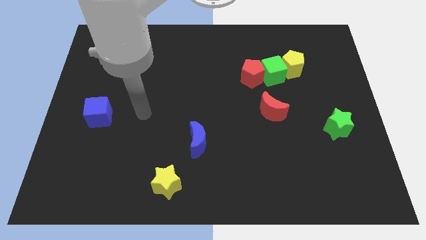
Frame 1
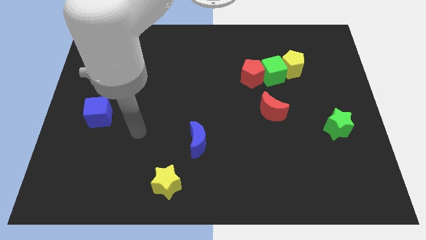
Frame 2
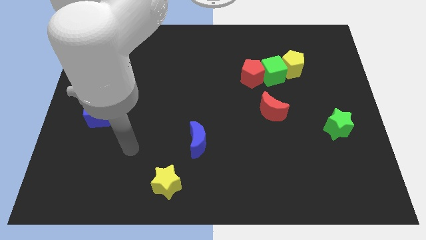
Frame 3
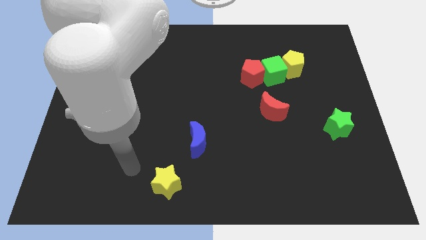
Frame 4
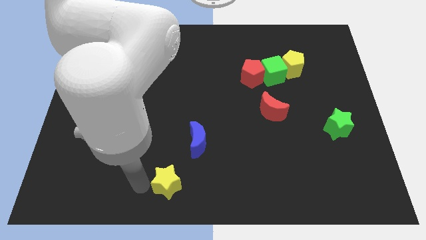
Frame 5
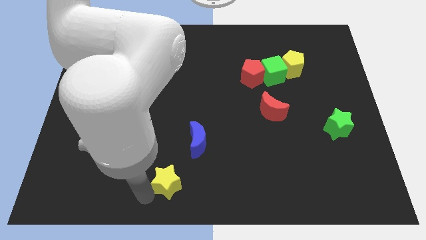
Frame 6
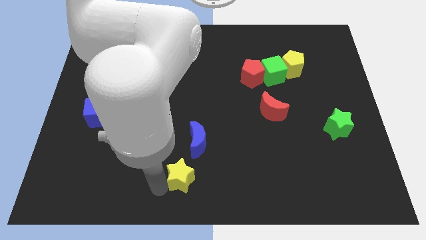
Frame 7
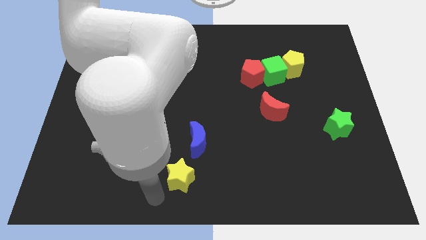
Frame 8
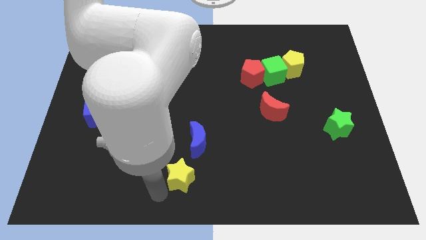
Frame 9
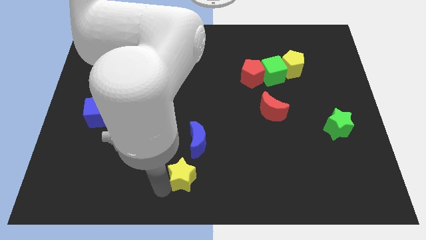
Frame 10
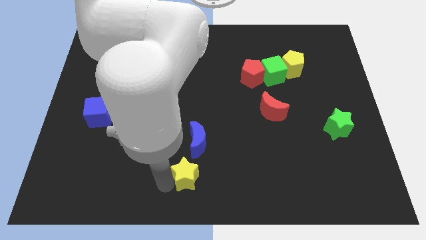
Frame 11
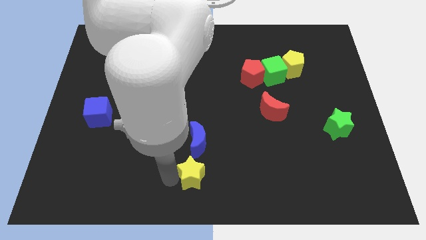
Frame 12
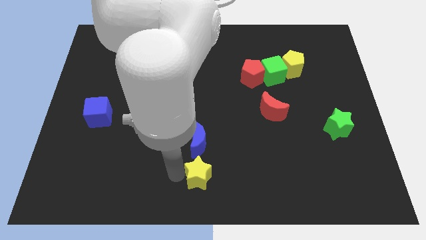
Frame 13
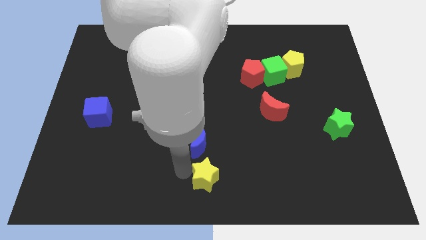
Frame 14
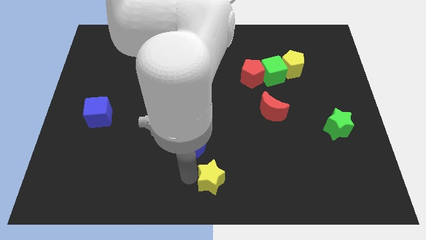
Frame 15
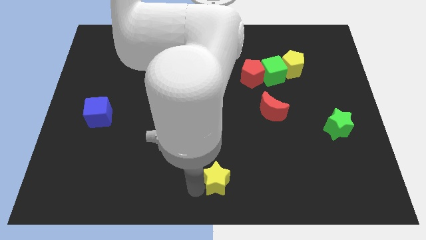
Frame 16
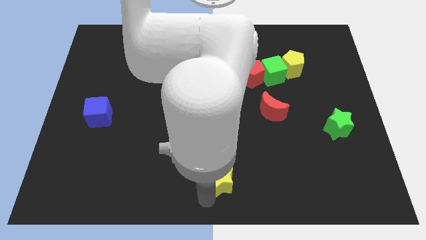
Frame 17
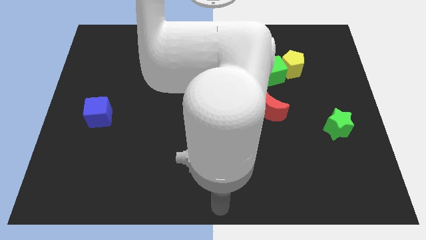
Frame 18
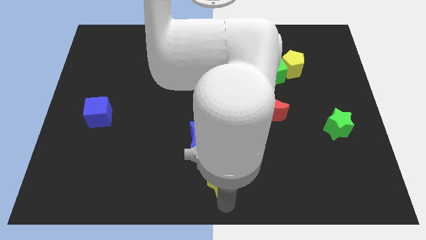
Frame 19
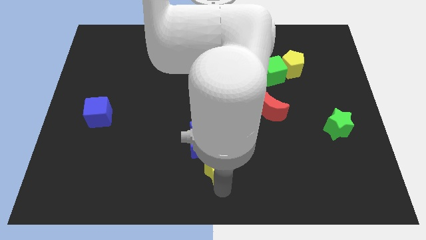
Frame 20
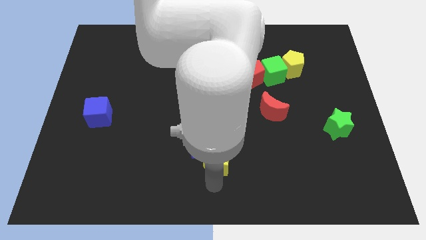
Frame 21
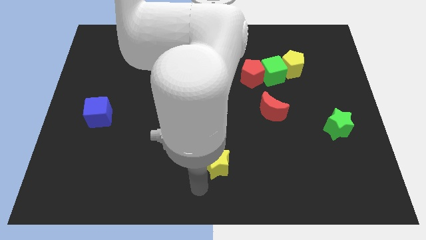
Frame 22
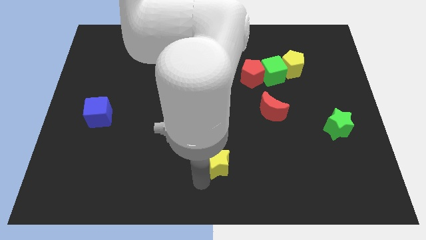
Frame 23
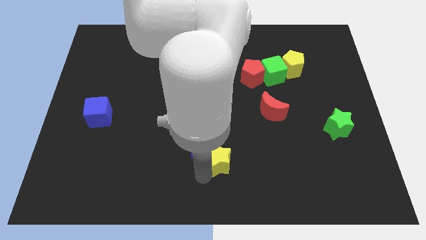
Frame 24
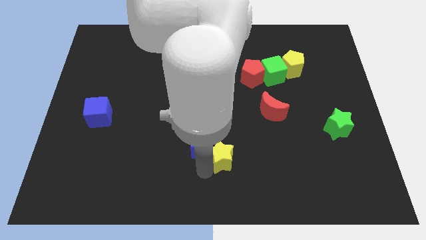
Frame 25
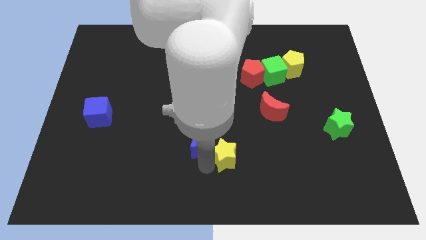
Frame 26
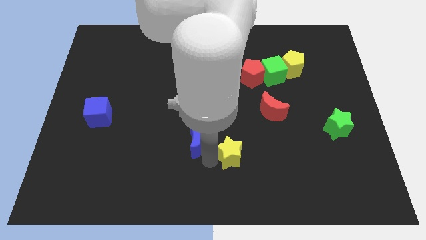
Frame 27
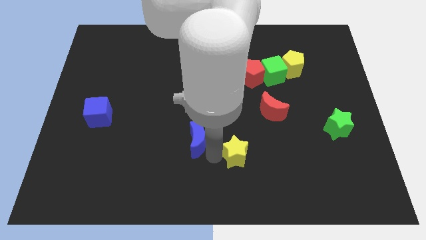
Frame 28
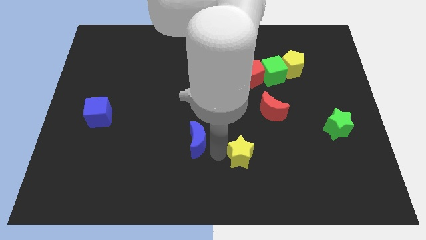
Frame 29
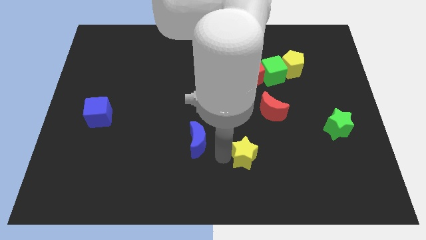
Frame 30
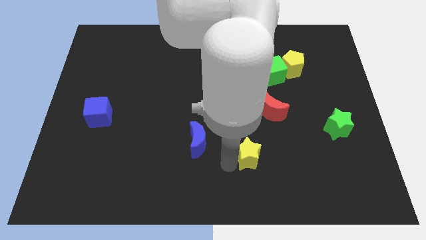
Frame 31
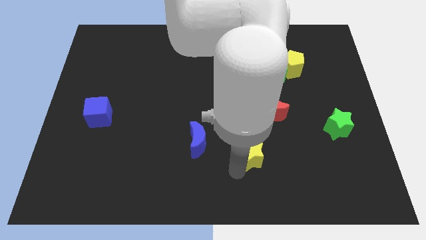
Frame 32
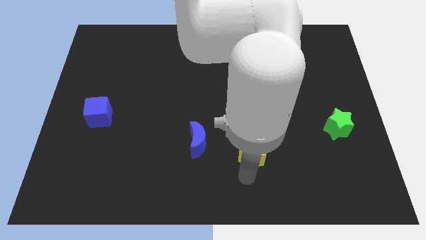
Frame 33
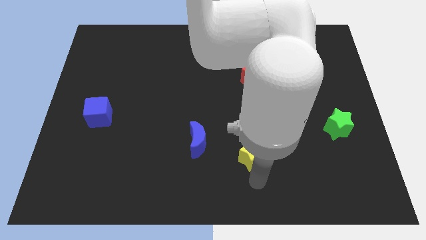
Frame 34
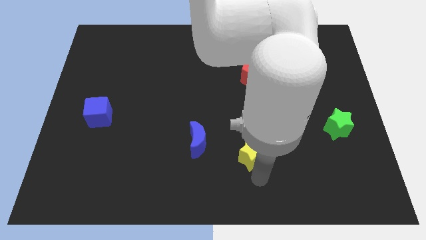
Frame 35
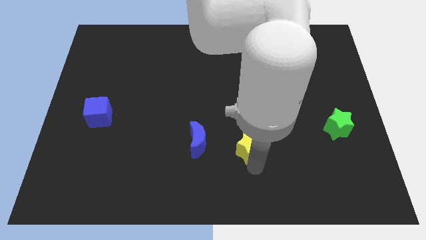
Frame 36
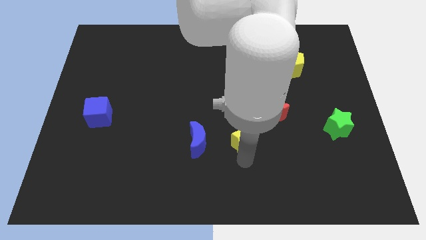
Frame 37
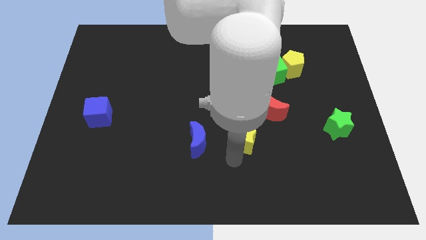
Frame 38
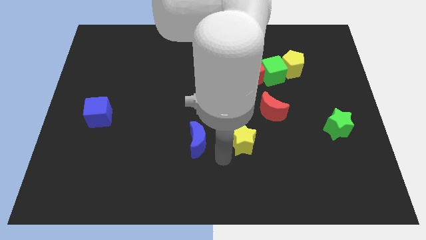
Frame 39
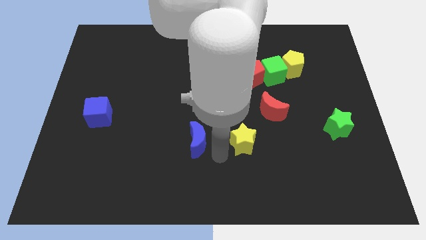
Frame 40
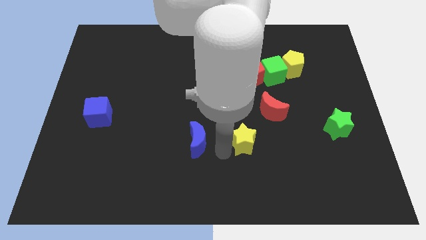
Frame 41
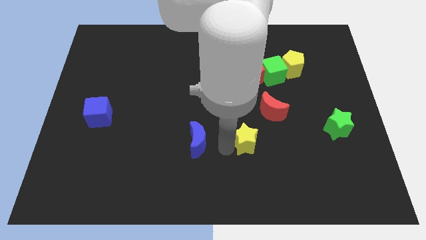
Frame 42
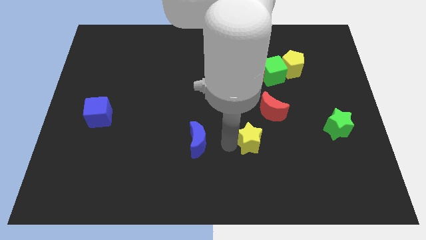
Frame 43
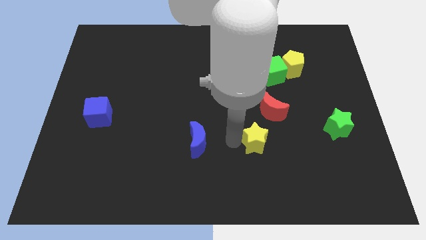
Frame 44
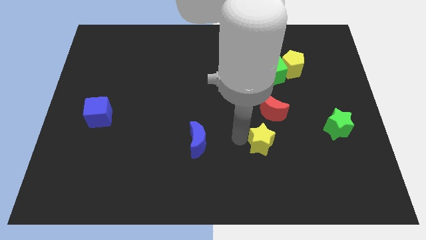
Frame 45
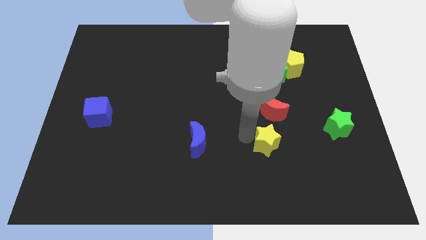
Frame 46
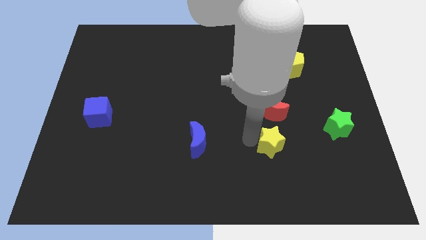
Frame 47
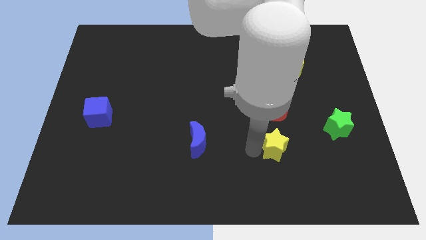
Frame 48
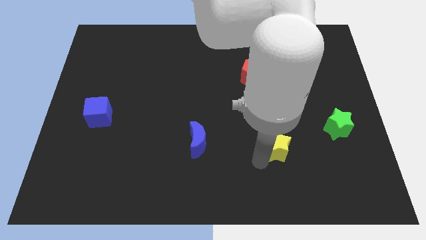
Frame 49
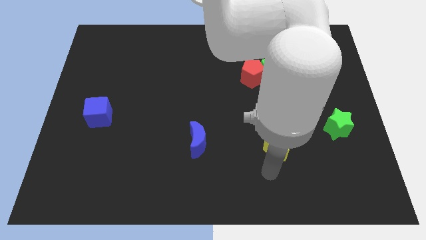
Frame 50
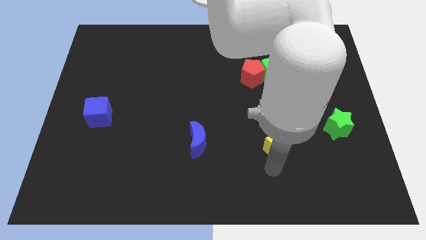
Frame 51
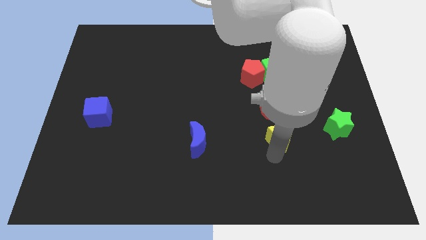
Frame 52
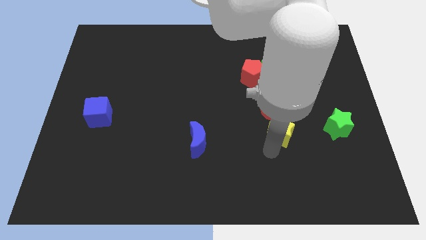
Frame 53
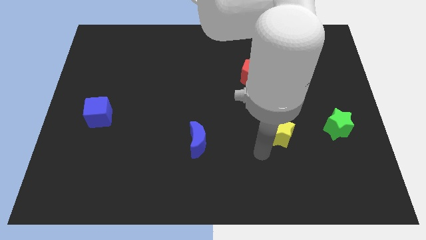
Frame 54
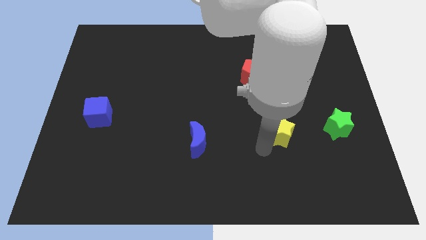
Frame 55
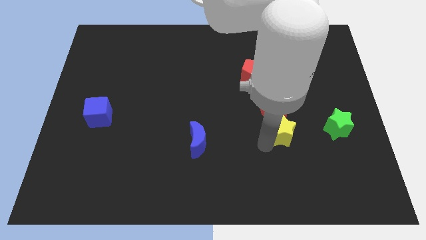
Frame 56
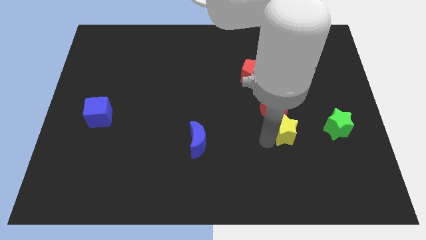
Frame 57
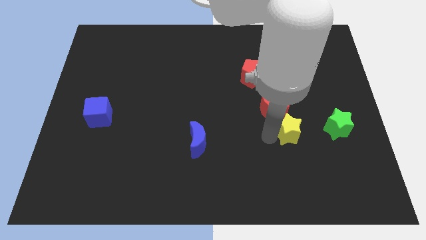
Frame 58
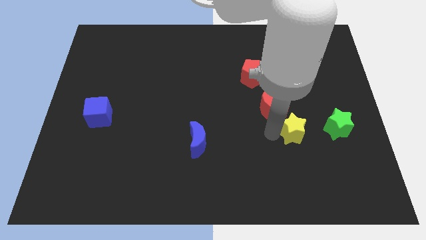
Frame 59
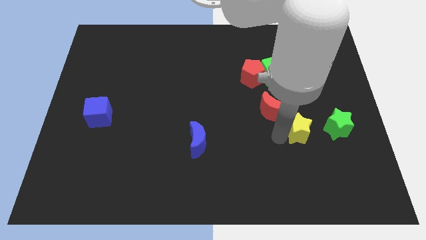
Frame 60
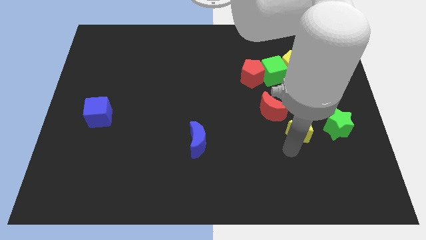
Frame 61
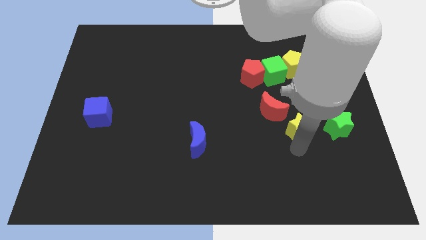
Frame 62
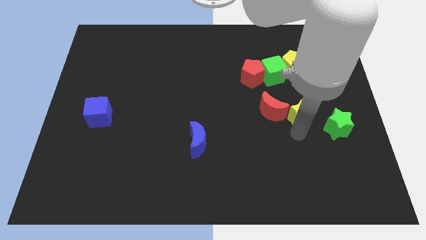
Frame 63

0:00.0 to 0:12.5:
push the yellow star to the bottom side of the yellow pentagon

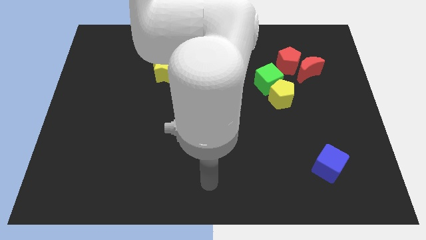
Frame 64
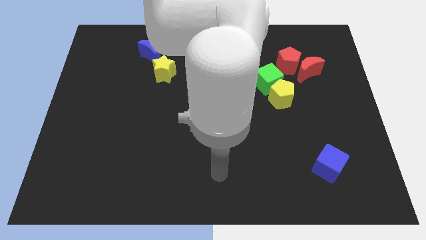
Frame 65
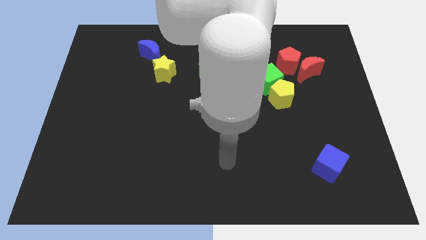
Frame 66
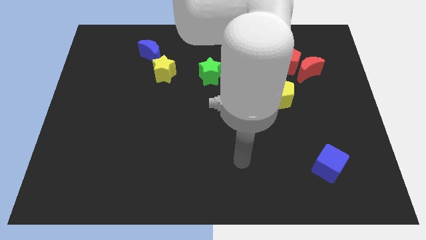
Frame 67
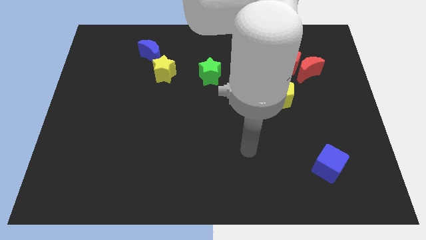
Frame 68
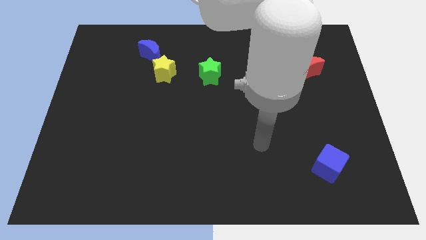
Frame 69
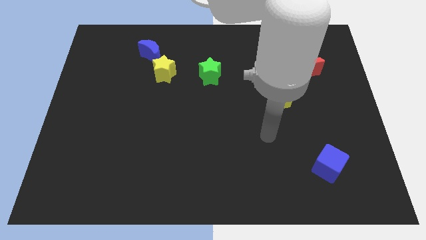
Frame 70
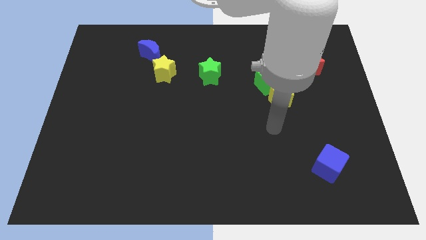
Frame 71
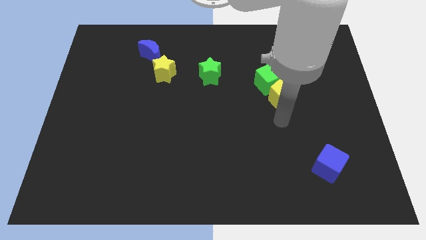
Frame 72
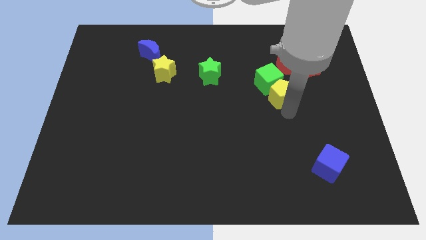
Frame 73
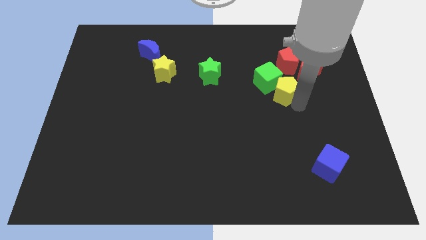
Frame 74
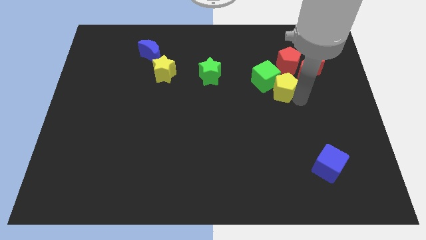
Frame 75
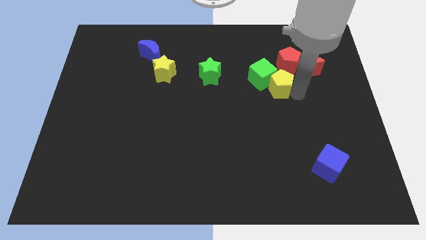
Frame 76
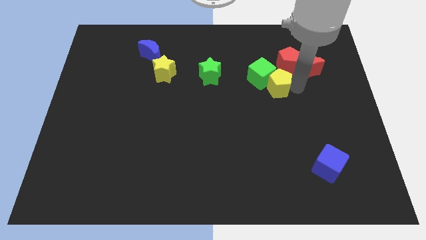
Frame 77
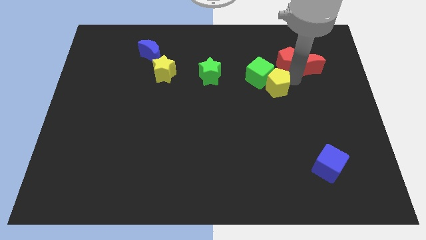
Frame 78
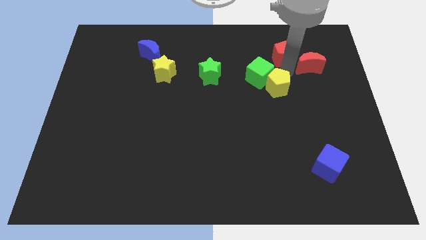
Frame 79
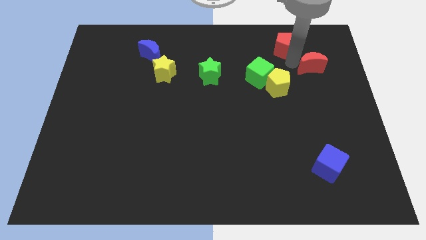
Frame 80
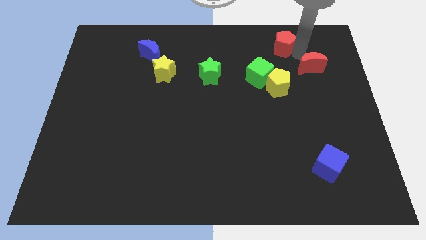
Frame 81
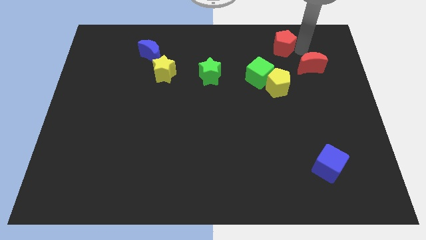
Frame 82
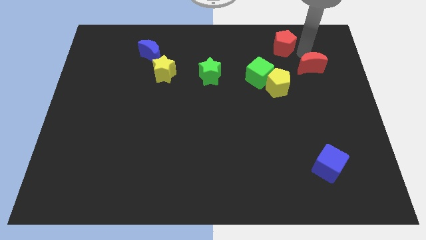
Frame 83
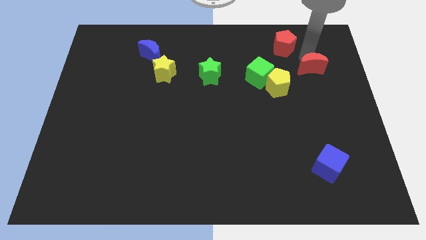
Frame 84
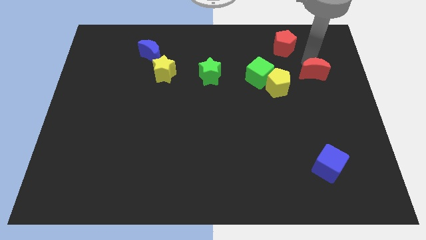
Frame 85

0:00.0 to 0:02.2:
push the red moon to the right side of the yellow pentagon
